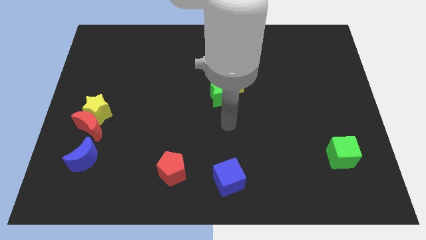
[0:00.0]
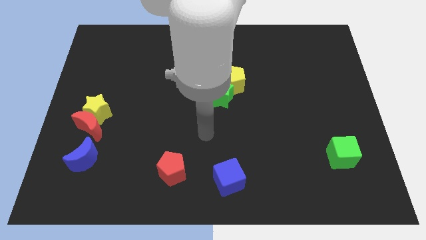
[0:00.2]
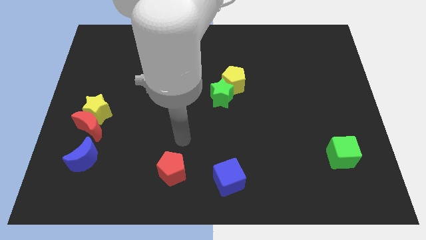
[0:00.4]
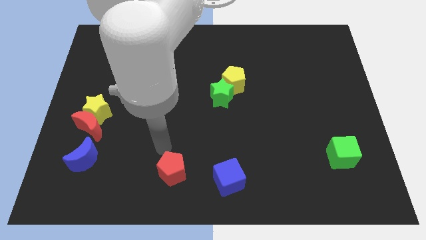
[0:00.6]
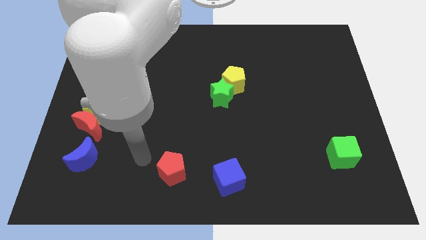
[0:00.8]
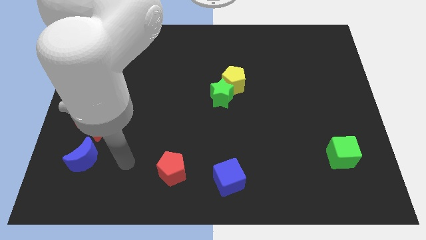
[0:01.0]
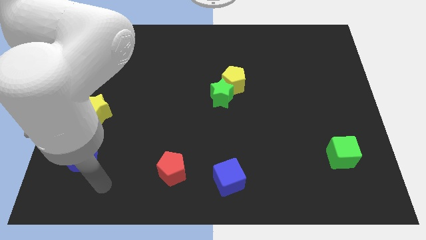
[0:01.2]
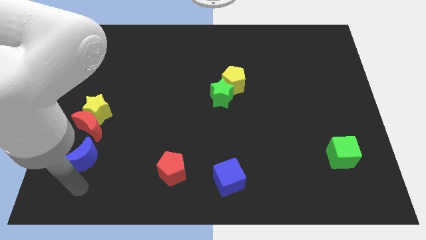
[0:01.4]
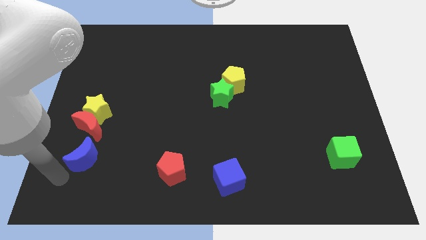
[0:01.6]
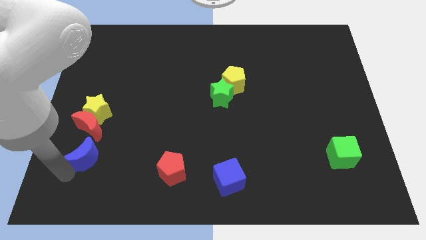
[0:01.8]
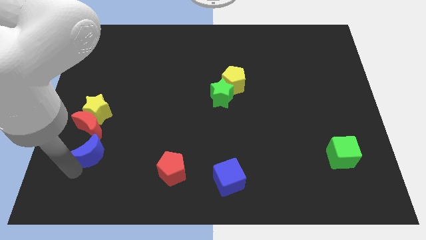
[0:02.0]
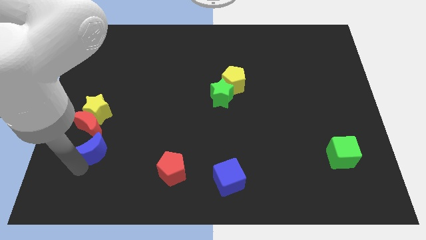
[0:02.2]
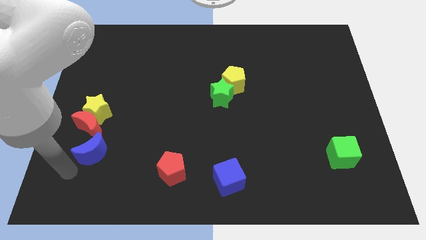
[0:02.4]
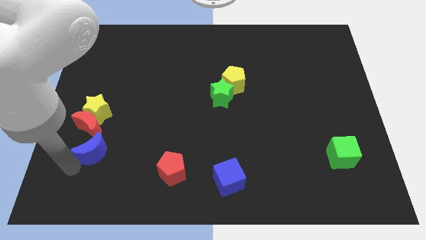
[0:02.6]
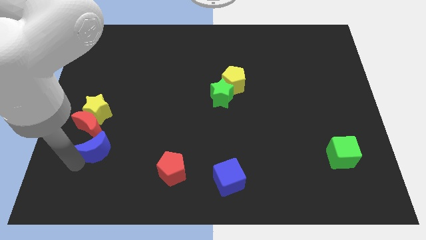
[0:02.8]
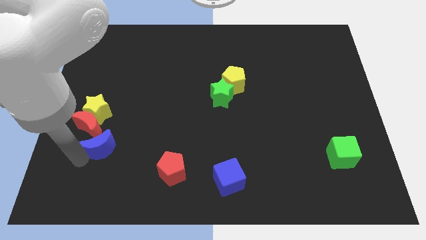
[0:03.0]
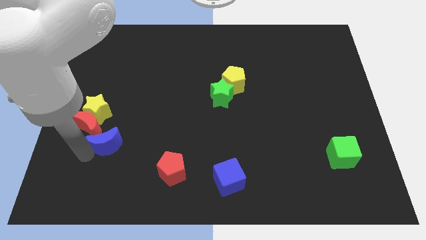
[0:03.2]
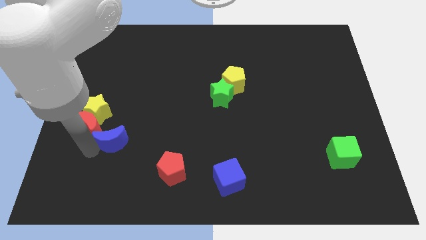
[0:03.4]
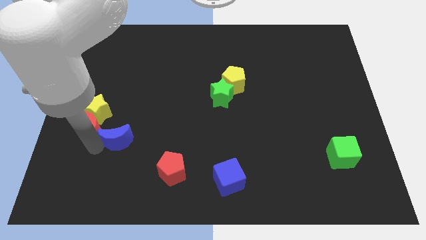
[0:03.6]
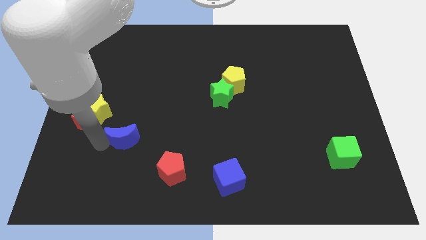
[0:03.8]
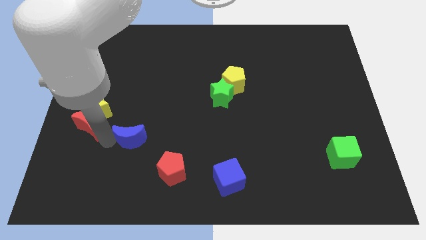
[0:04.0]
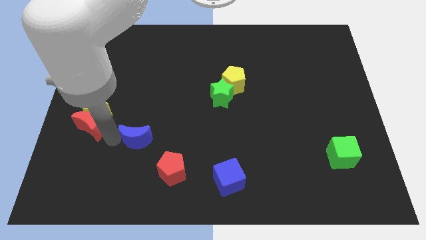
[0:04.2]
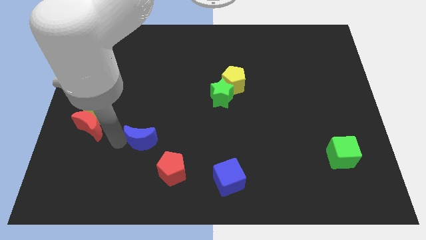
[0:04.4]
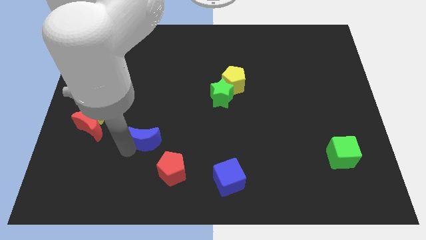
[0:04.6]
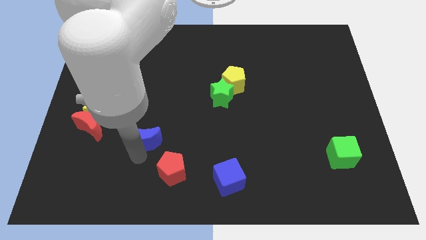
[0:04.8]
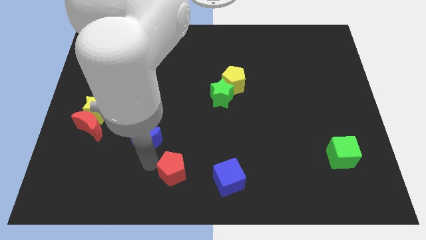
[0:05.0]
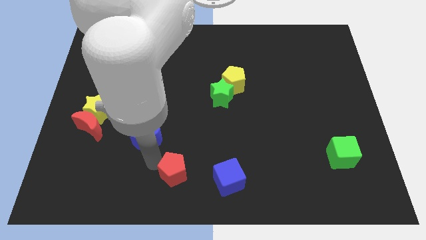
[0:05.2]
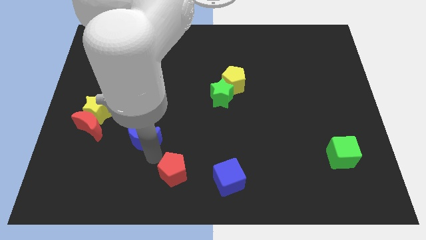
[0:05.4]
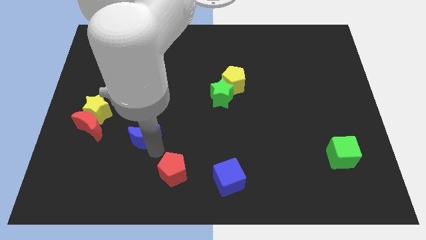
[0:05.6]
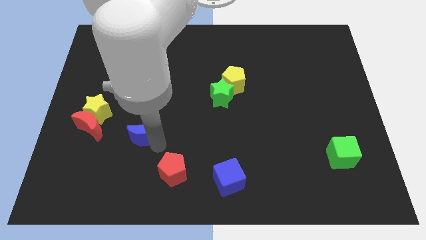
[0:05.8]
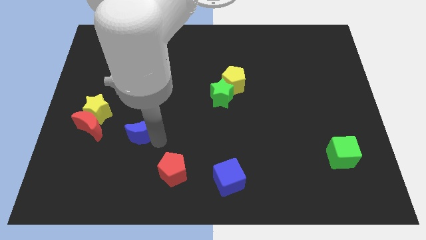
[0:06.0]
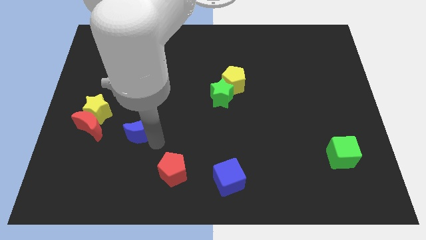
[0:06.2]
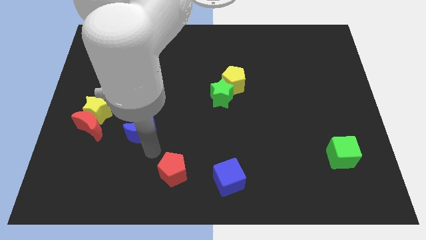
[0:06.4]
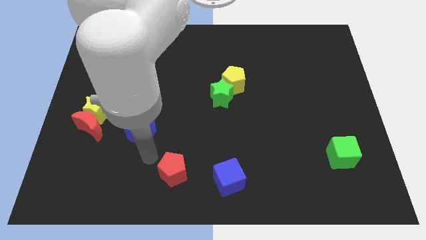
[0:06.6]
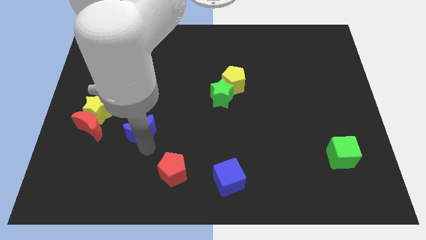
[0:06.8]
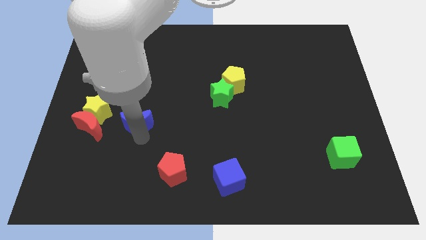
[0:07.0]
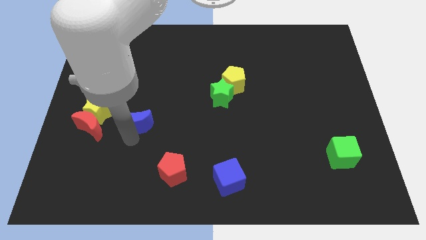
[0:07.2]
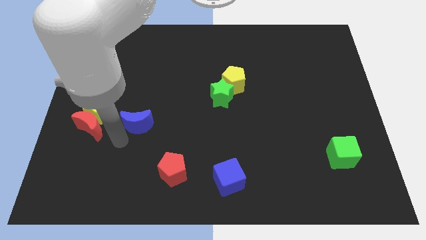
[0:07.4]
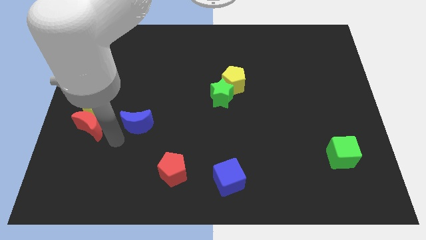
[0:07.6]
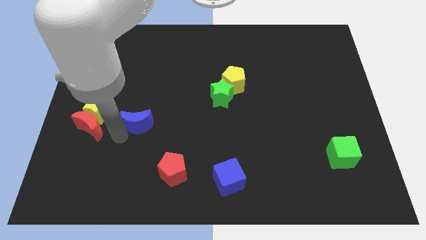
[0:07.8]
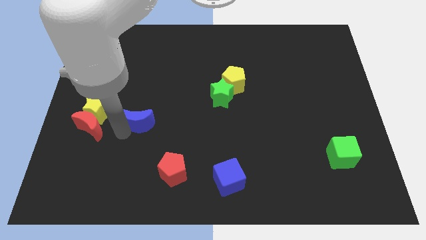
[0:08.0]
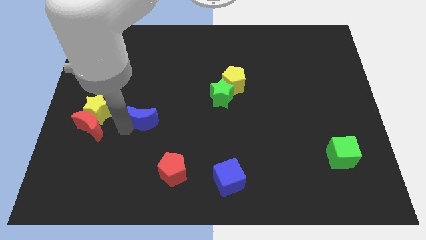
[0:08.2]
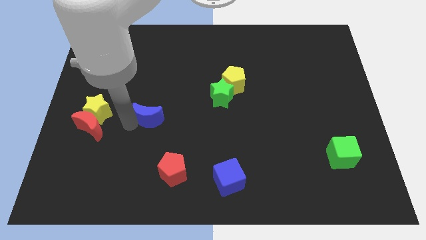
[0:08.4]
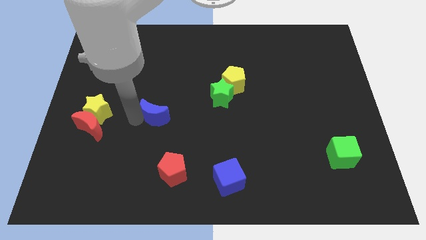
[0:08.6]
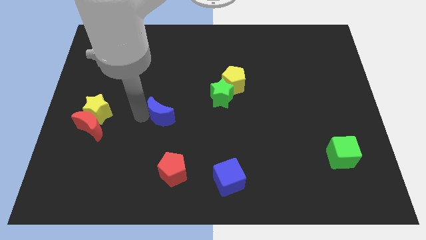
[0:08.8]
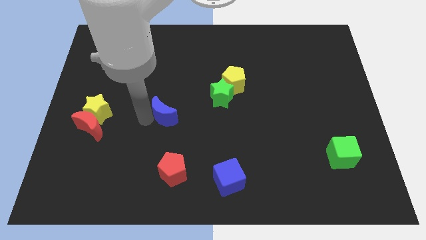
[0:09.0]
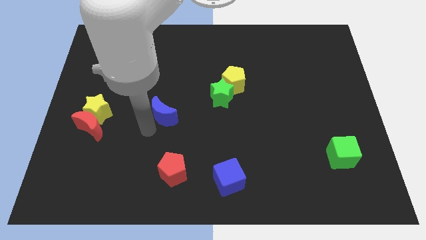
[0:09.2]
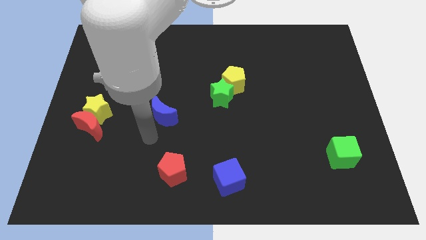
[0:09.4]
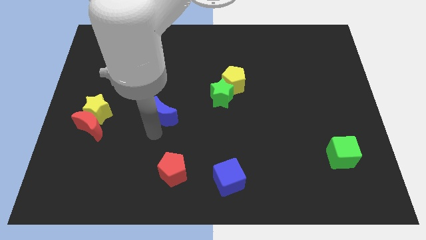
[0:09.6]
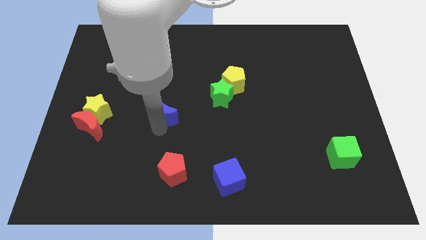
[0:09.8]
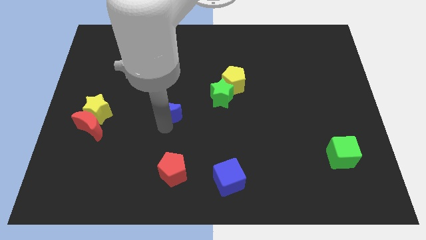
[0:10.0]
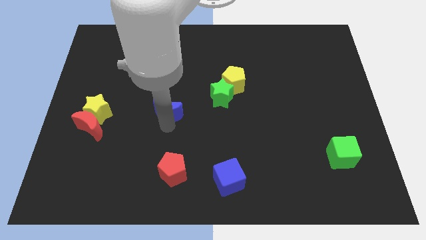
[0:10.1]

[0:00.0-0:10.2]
push the blue moon upwards and then right

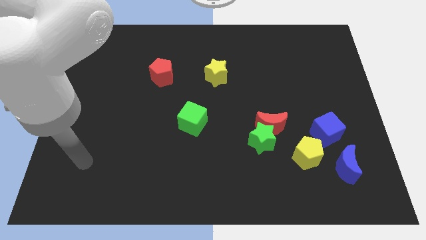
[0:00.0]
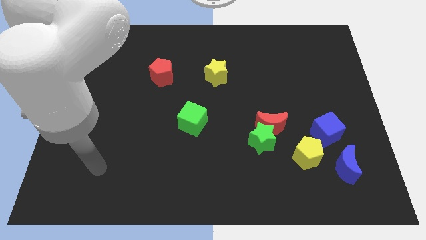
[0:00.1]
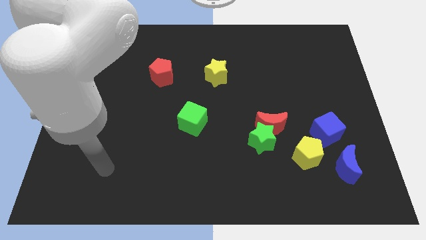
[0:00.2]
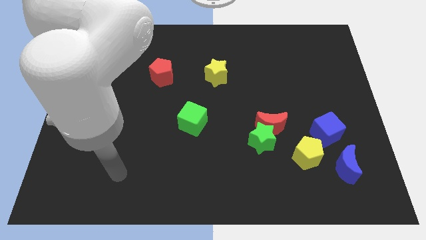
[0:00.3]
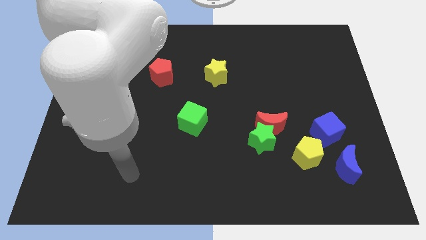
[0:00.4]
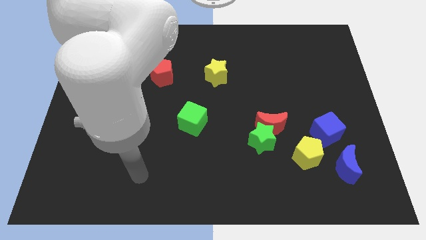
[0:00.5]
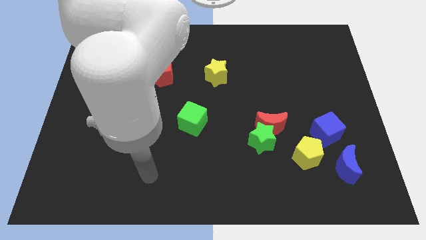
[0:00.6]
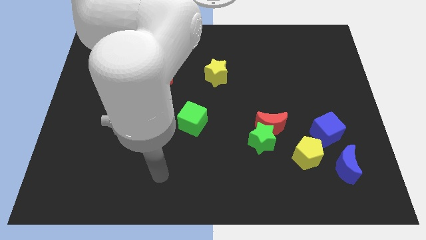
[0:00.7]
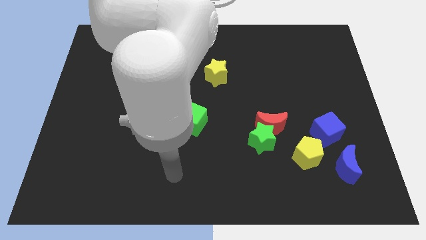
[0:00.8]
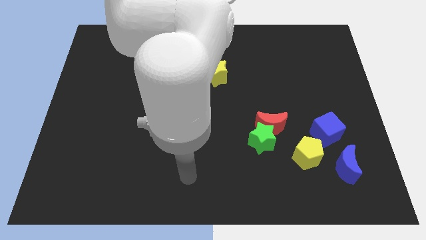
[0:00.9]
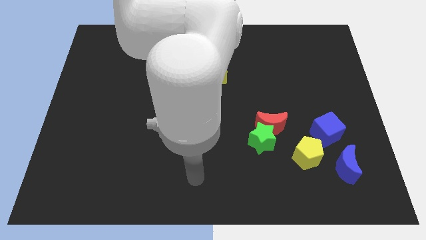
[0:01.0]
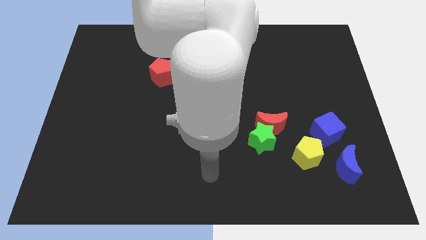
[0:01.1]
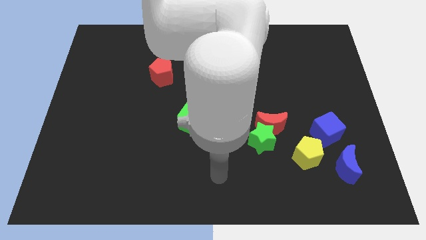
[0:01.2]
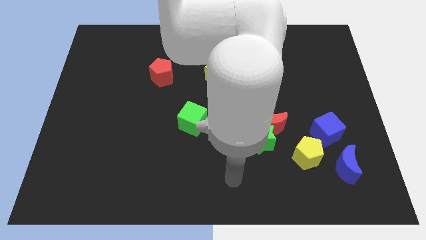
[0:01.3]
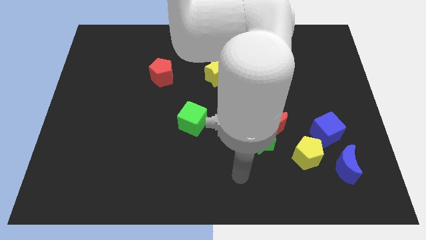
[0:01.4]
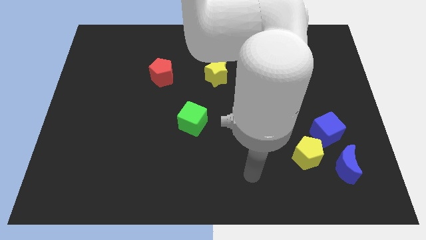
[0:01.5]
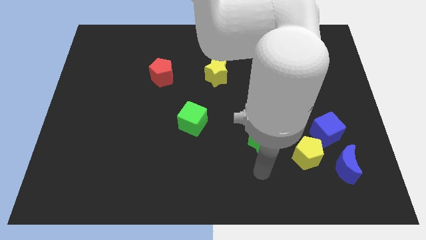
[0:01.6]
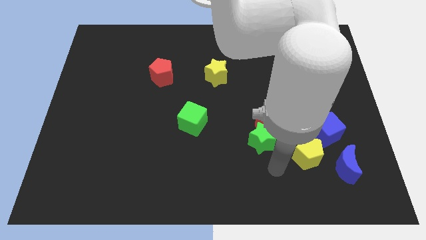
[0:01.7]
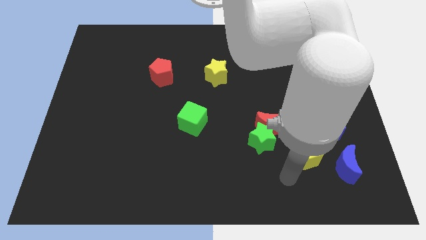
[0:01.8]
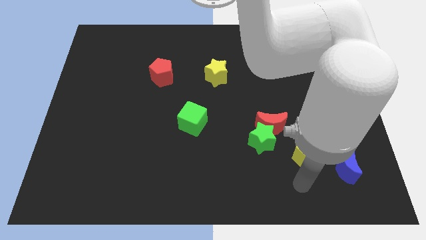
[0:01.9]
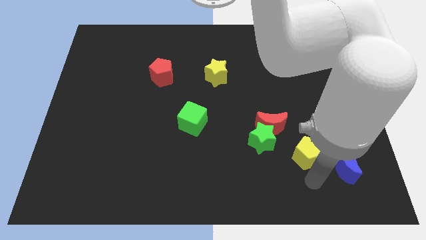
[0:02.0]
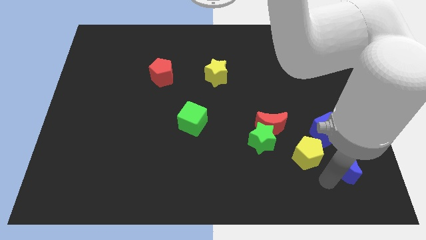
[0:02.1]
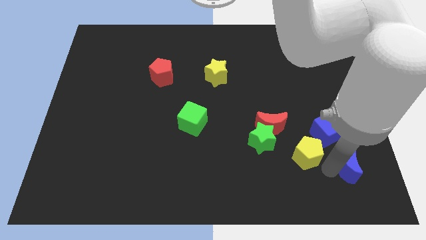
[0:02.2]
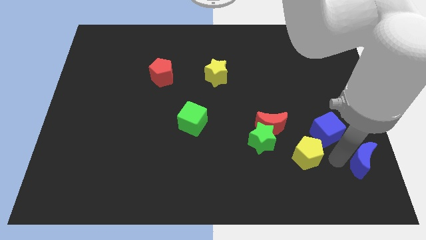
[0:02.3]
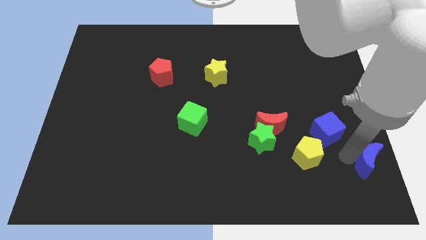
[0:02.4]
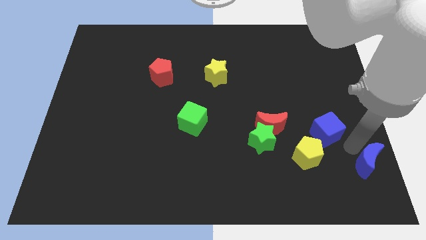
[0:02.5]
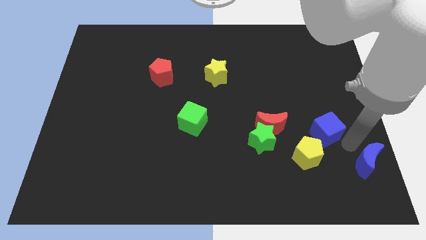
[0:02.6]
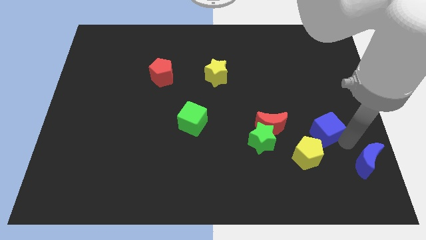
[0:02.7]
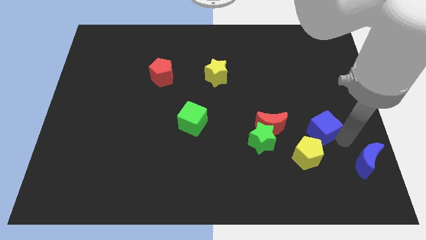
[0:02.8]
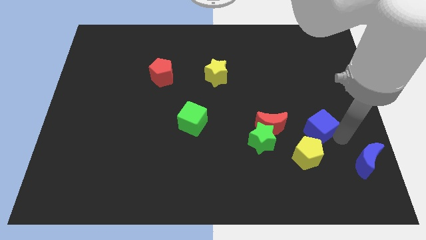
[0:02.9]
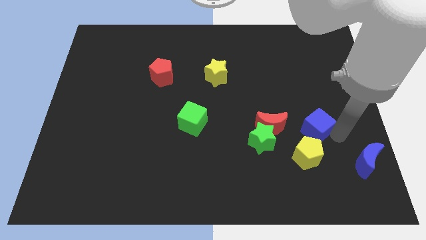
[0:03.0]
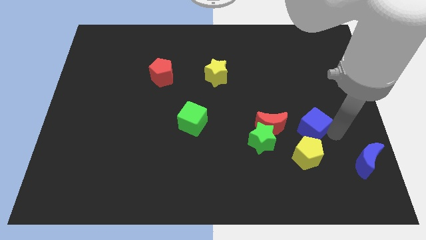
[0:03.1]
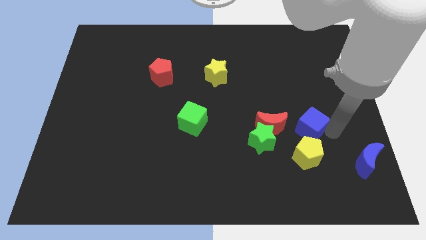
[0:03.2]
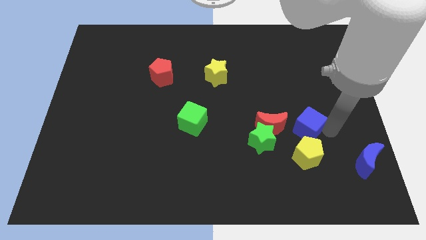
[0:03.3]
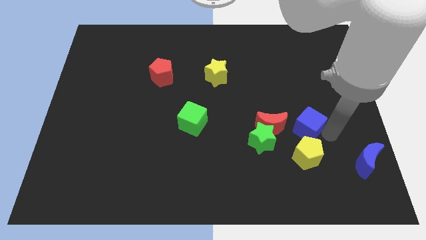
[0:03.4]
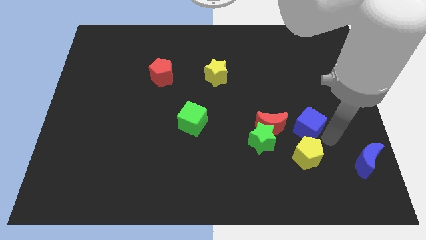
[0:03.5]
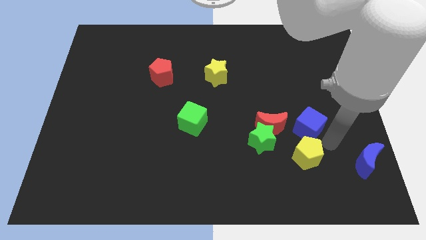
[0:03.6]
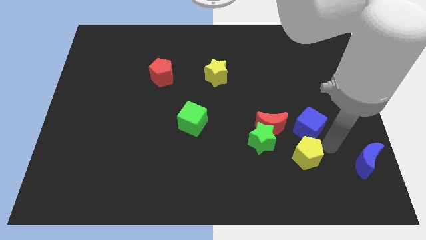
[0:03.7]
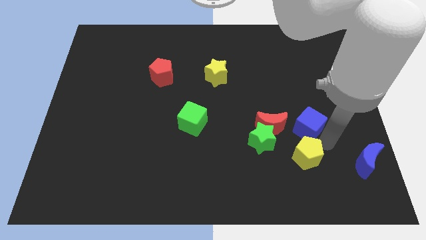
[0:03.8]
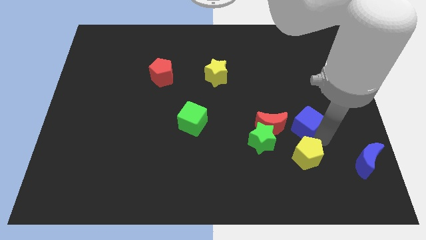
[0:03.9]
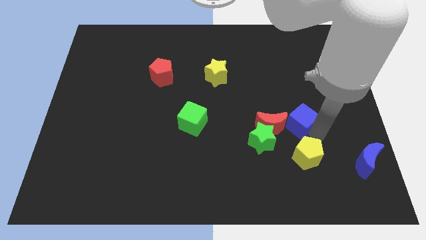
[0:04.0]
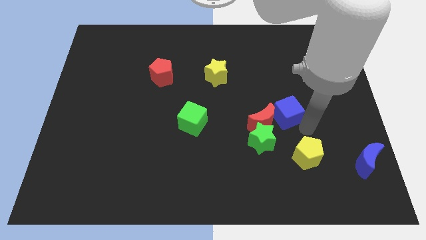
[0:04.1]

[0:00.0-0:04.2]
slightly push the blue cube diagonally upwards and to the left
